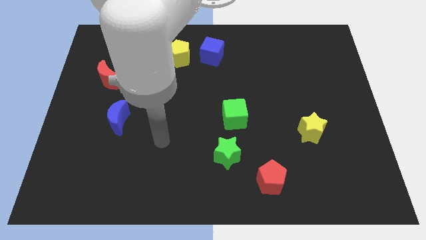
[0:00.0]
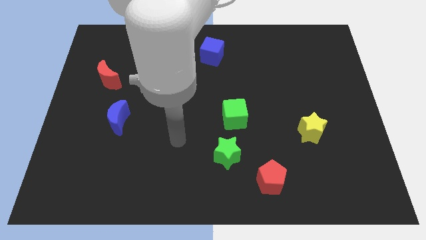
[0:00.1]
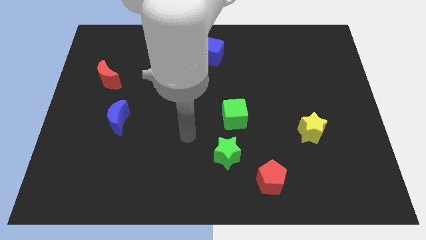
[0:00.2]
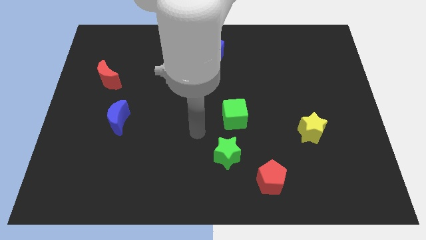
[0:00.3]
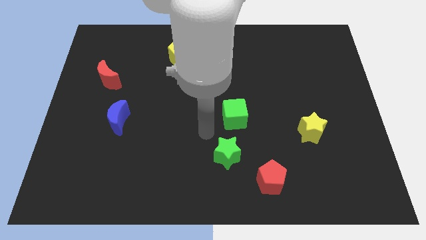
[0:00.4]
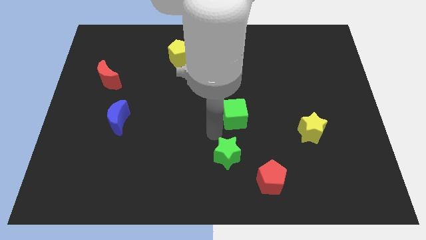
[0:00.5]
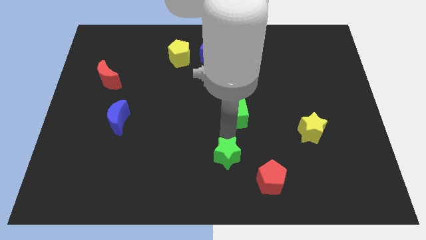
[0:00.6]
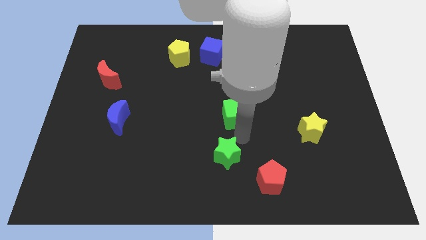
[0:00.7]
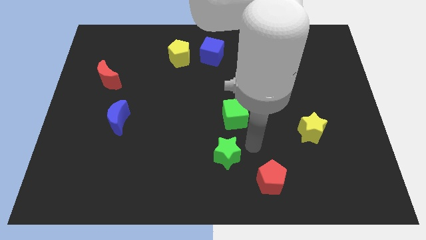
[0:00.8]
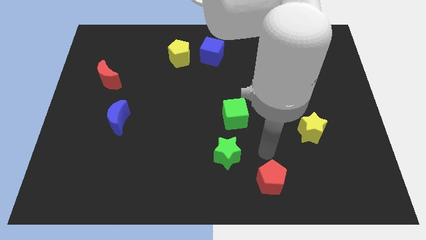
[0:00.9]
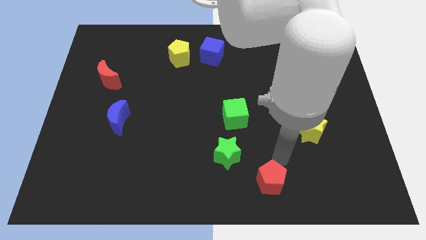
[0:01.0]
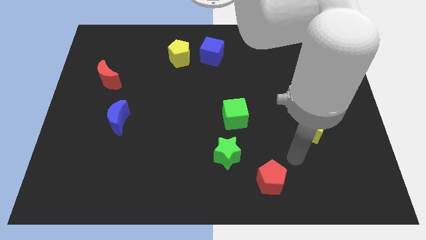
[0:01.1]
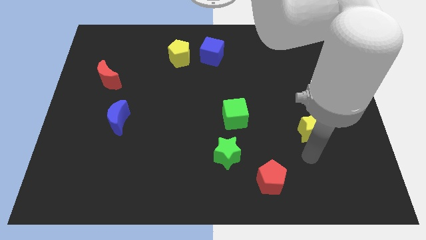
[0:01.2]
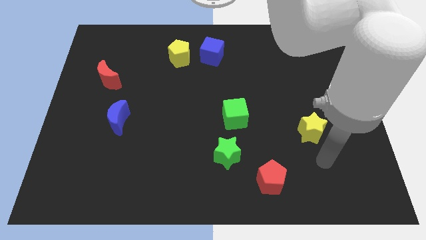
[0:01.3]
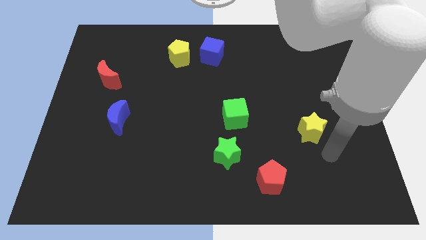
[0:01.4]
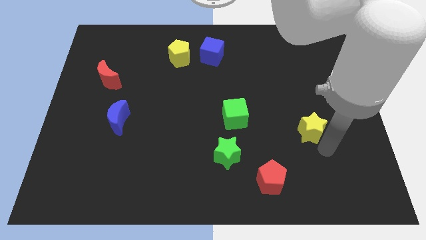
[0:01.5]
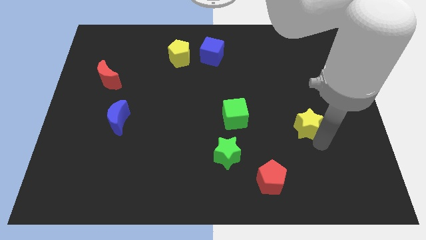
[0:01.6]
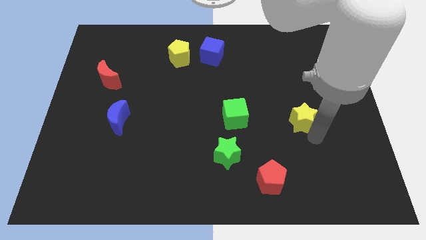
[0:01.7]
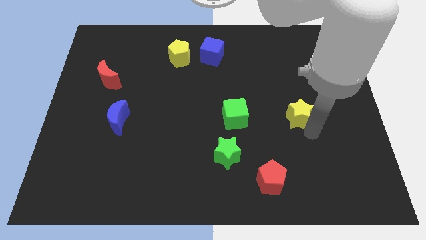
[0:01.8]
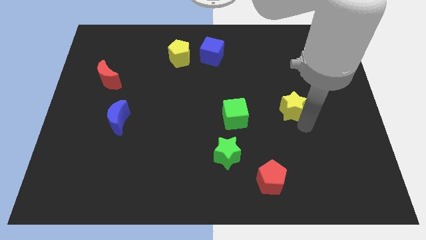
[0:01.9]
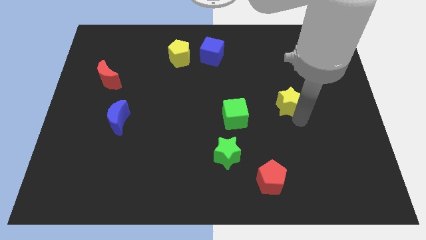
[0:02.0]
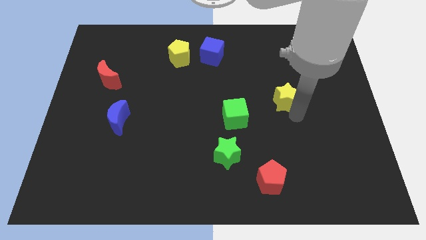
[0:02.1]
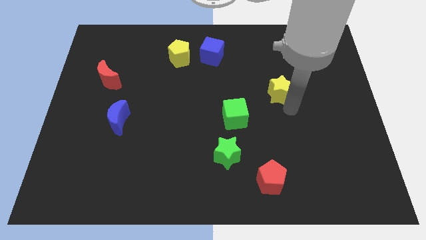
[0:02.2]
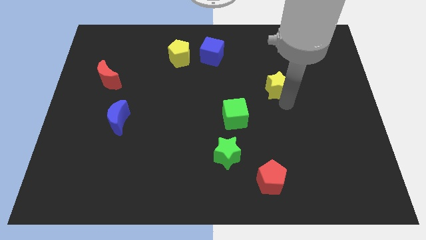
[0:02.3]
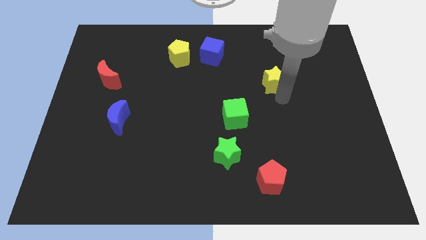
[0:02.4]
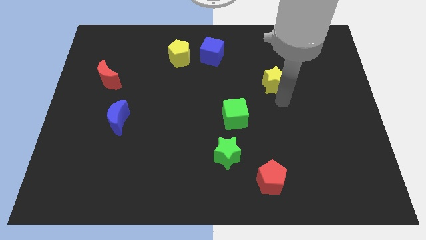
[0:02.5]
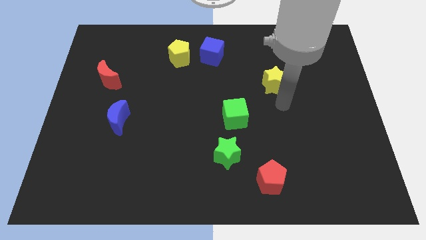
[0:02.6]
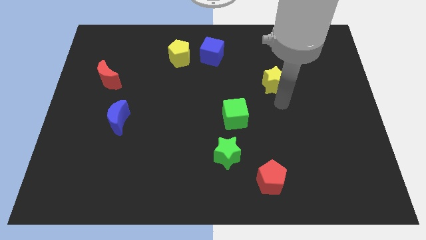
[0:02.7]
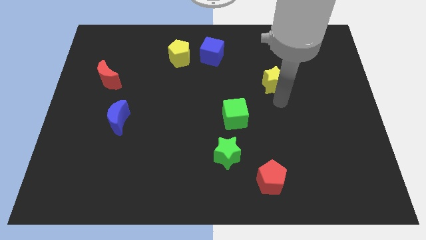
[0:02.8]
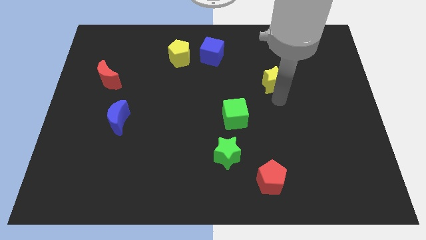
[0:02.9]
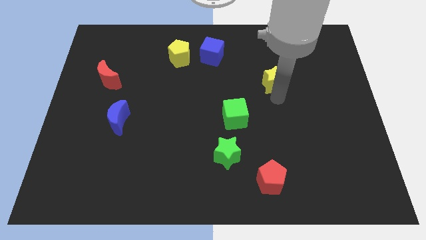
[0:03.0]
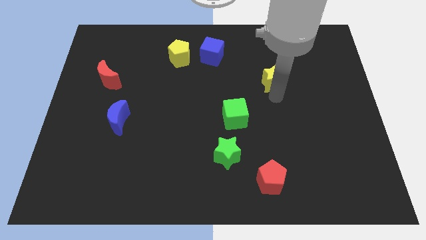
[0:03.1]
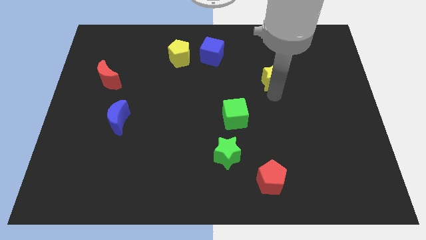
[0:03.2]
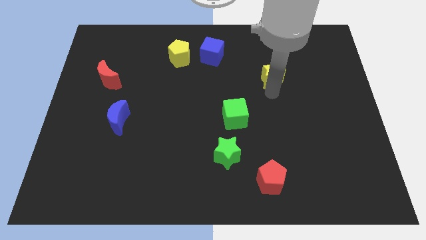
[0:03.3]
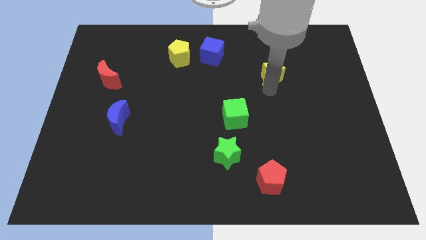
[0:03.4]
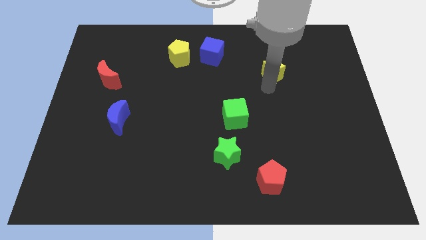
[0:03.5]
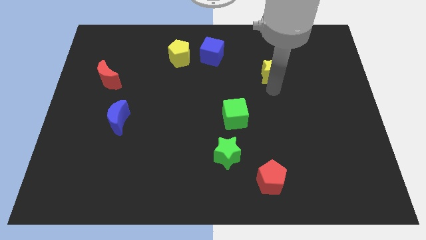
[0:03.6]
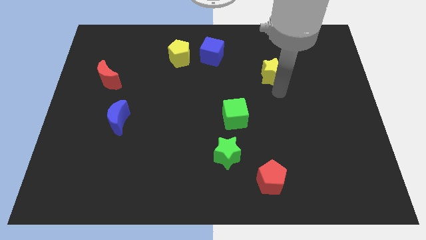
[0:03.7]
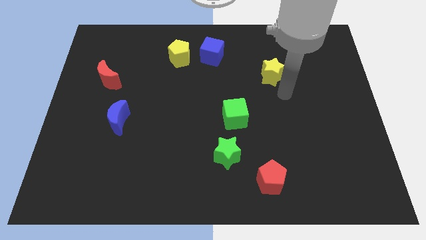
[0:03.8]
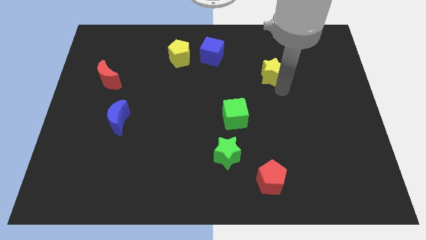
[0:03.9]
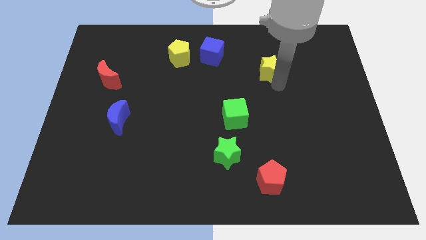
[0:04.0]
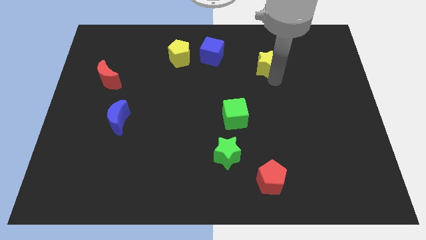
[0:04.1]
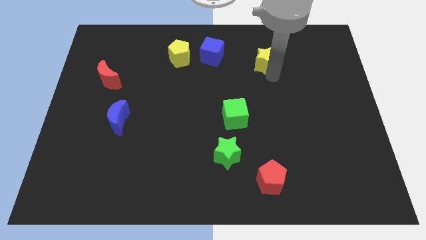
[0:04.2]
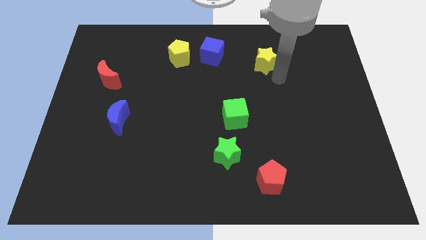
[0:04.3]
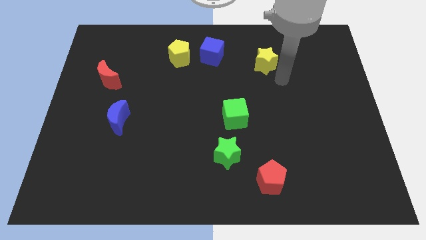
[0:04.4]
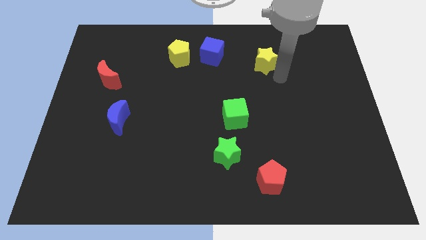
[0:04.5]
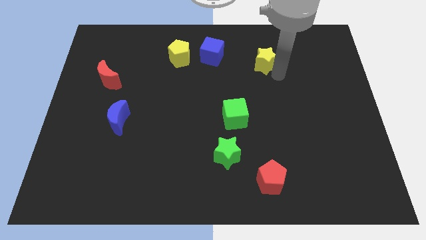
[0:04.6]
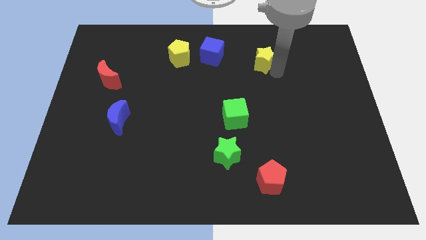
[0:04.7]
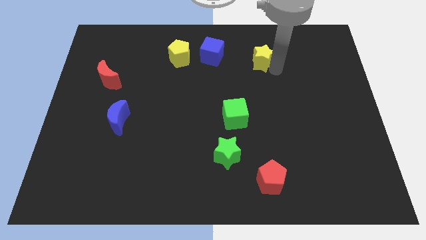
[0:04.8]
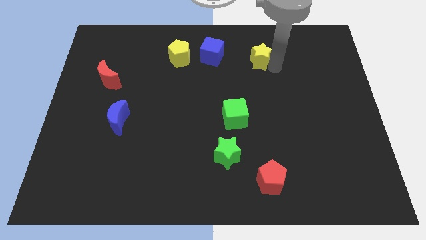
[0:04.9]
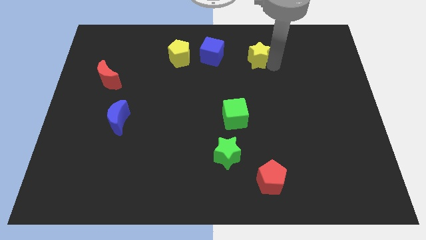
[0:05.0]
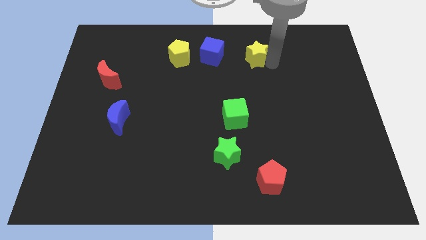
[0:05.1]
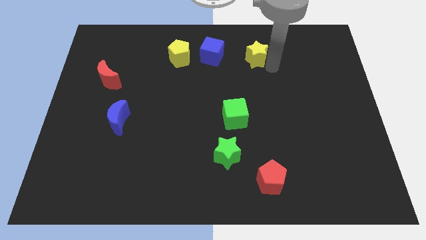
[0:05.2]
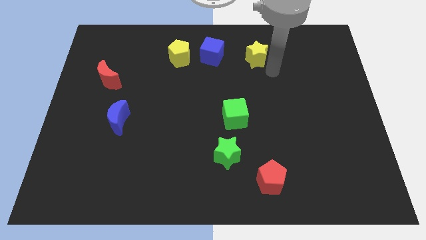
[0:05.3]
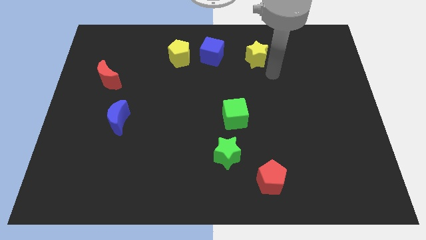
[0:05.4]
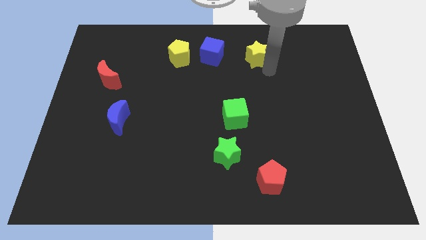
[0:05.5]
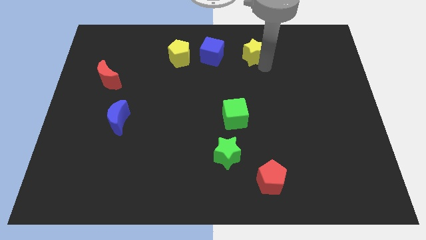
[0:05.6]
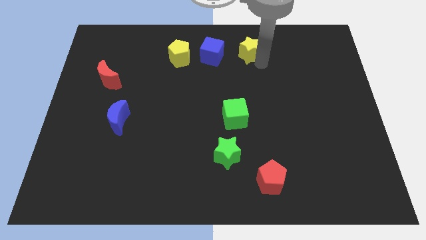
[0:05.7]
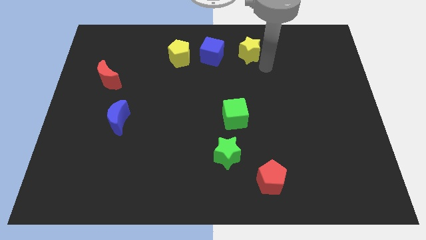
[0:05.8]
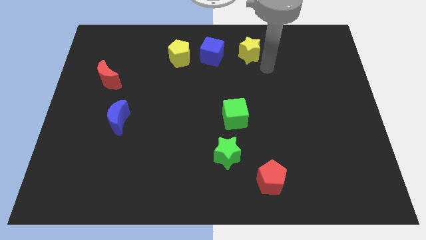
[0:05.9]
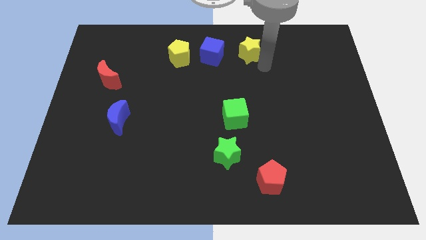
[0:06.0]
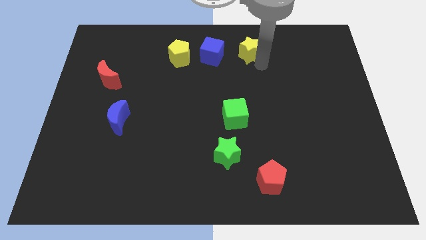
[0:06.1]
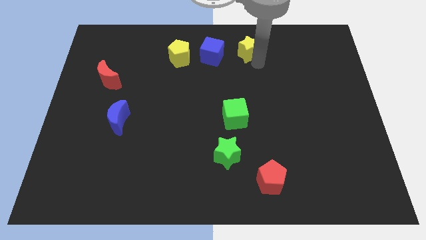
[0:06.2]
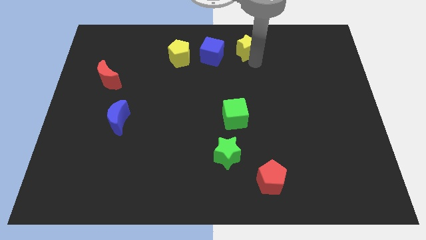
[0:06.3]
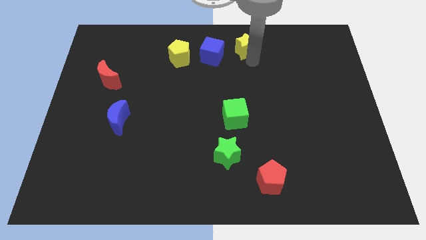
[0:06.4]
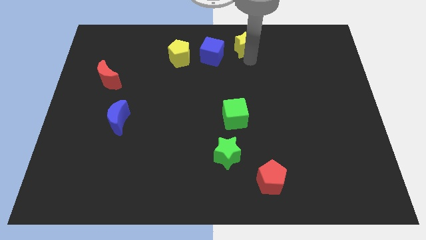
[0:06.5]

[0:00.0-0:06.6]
move the yellow star to the towards your base

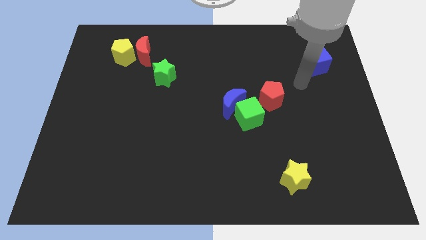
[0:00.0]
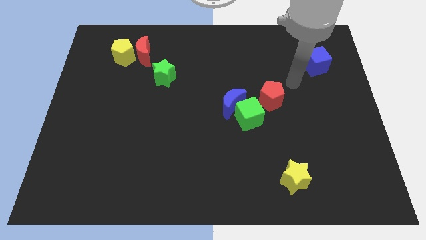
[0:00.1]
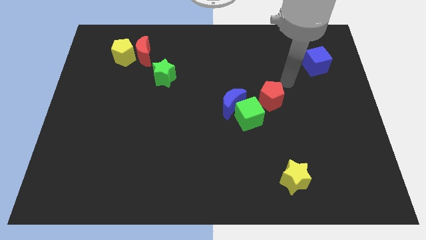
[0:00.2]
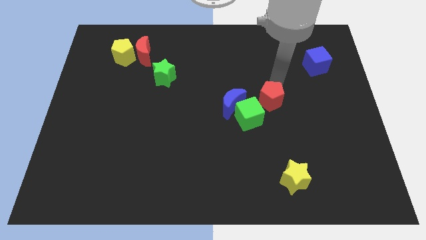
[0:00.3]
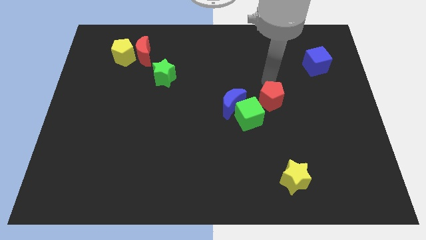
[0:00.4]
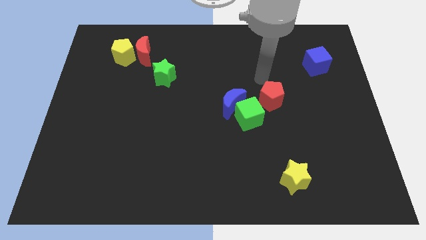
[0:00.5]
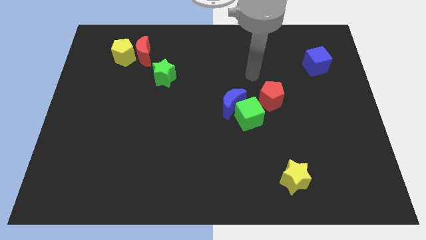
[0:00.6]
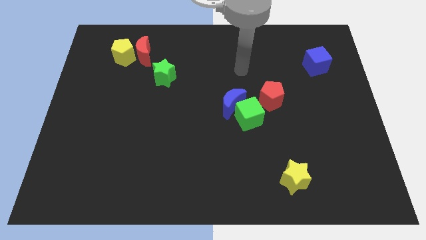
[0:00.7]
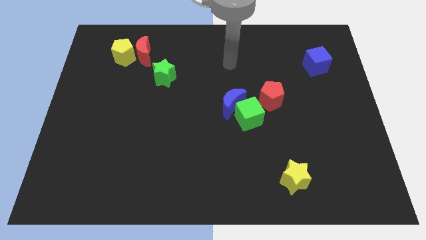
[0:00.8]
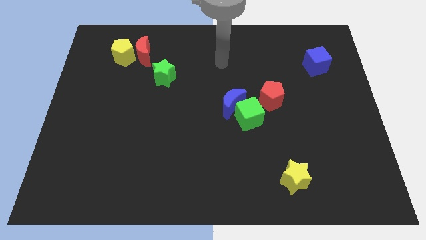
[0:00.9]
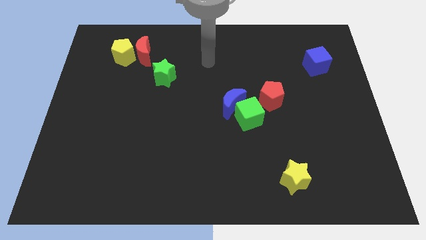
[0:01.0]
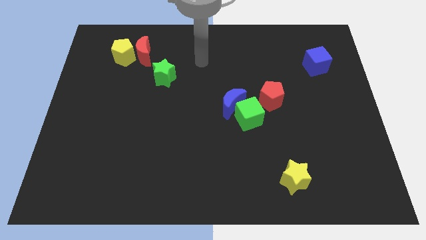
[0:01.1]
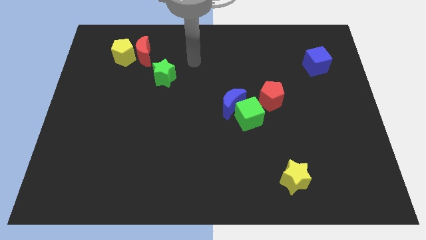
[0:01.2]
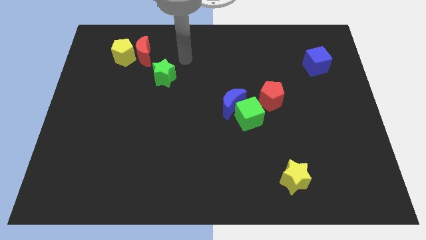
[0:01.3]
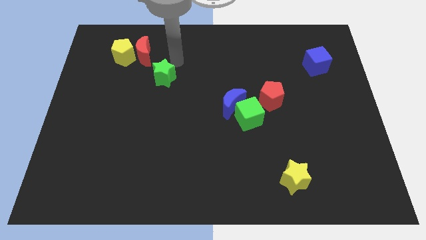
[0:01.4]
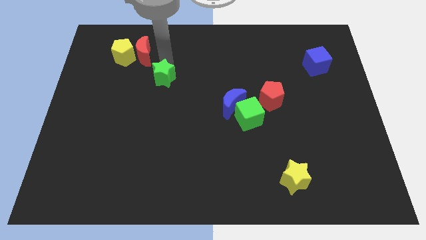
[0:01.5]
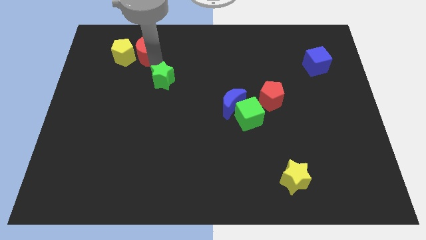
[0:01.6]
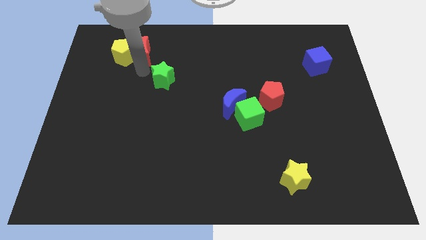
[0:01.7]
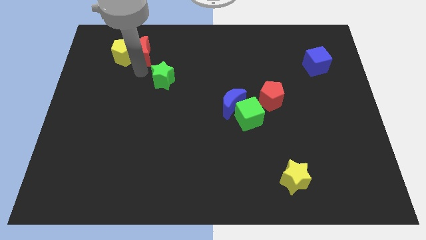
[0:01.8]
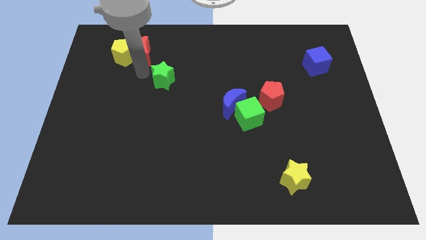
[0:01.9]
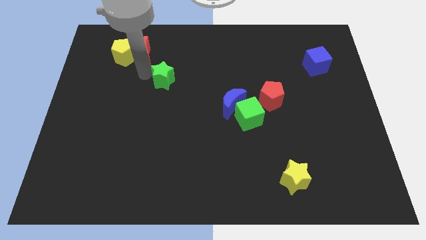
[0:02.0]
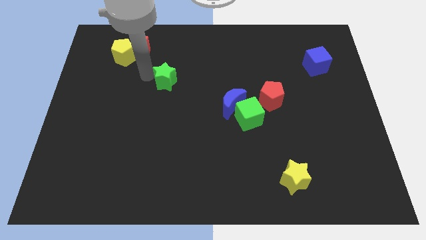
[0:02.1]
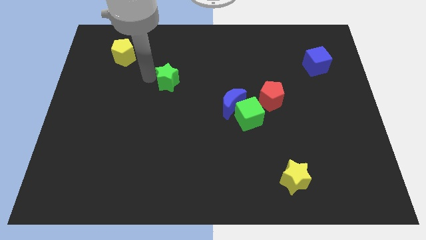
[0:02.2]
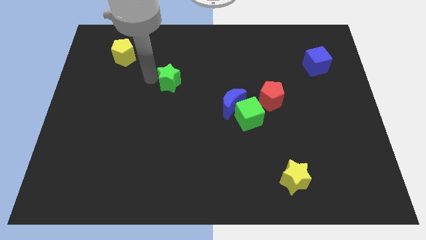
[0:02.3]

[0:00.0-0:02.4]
put the green star to the center
